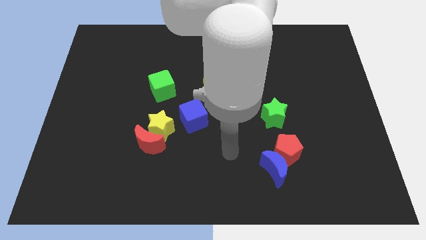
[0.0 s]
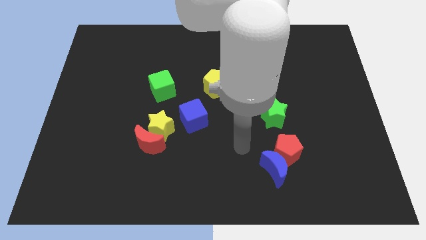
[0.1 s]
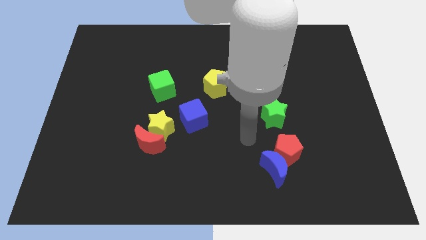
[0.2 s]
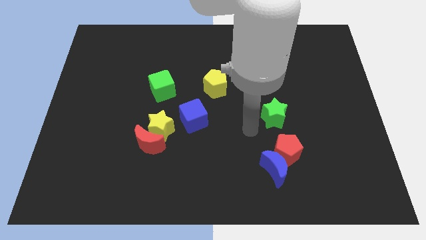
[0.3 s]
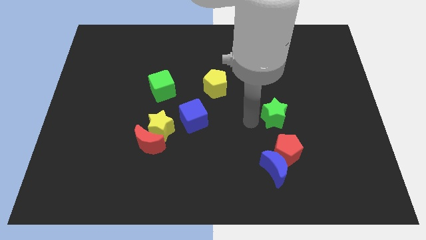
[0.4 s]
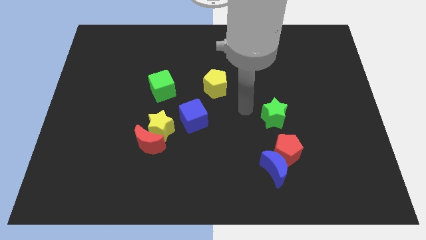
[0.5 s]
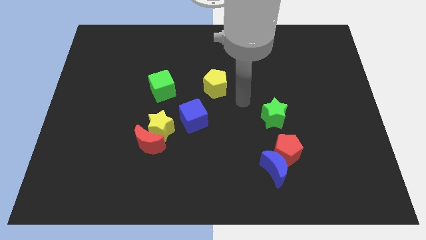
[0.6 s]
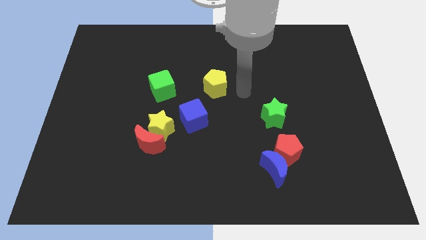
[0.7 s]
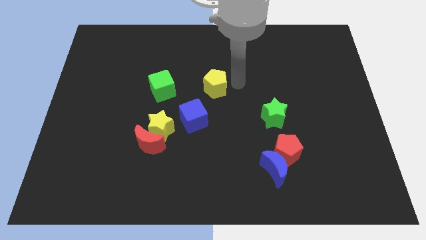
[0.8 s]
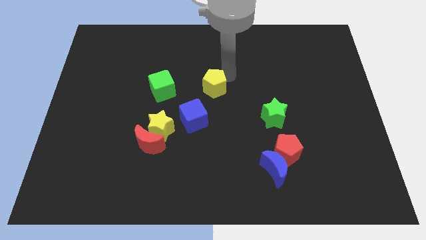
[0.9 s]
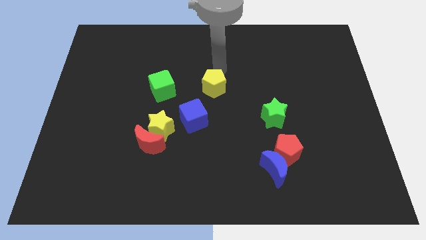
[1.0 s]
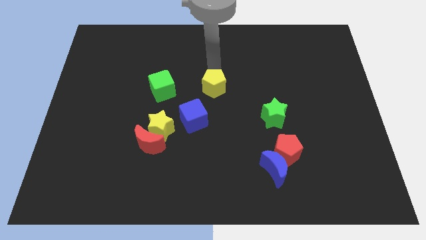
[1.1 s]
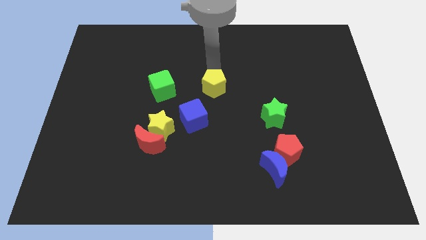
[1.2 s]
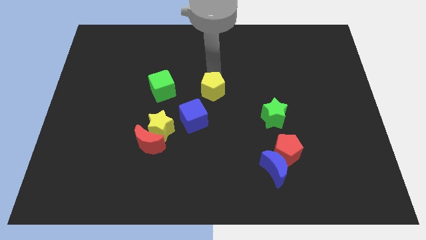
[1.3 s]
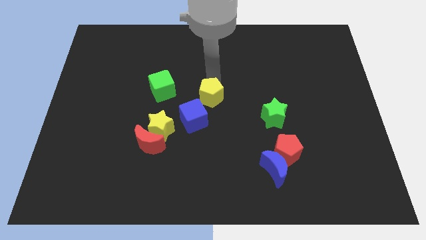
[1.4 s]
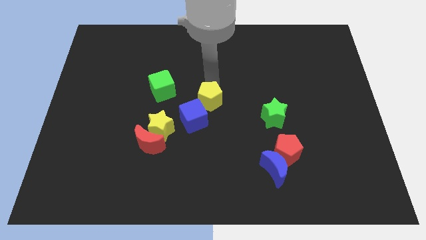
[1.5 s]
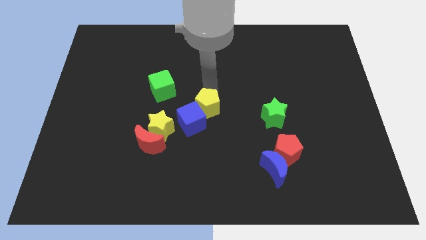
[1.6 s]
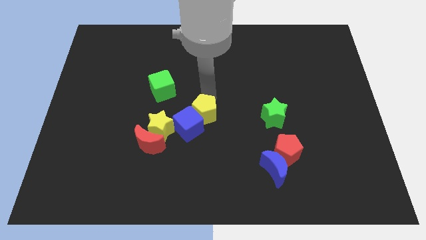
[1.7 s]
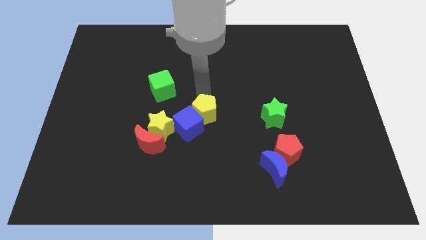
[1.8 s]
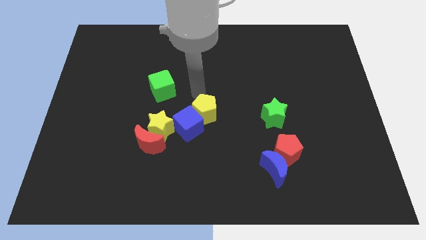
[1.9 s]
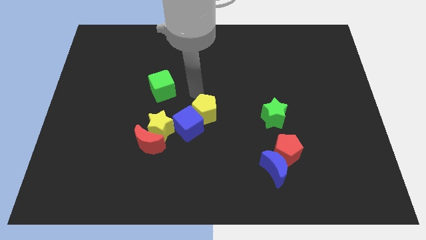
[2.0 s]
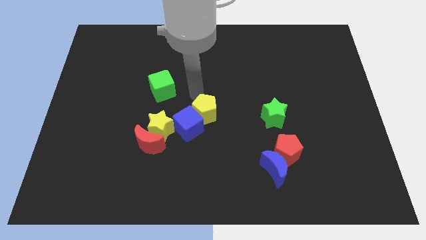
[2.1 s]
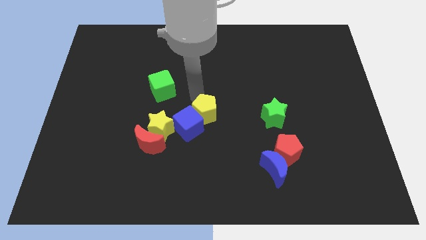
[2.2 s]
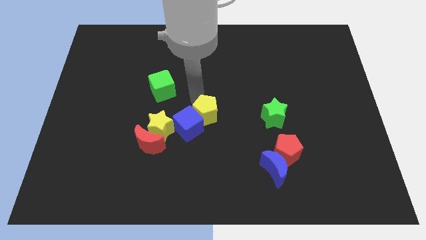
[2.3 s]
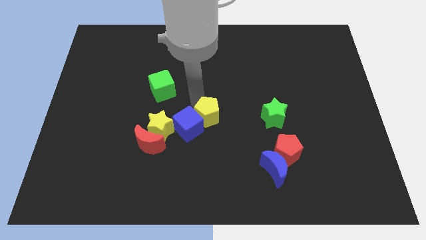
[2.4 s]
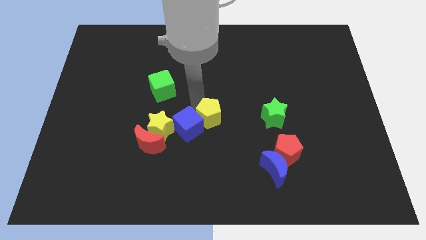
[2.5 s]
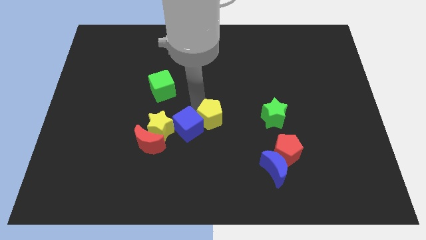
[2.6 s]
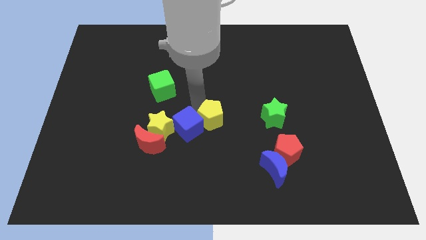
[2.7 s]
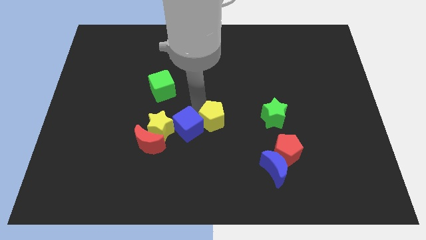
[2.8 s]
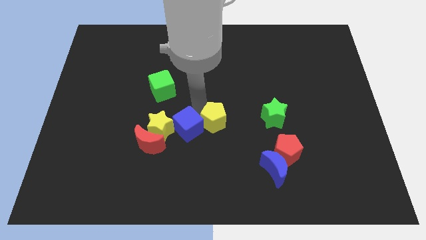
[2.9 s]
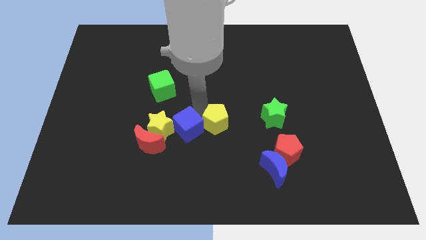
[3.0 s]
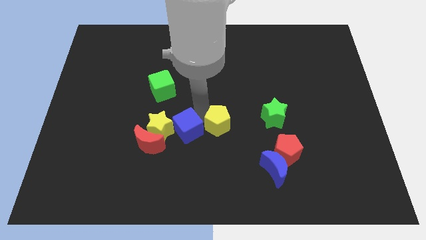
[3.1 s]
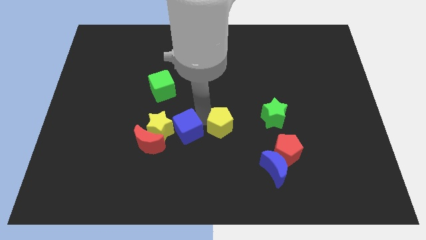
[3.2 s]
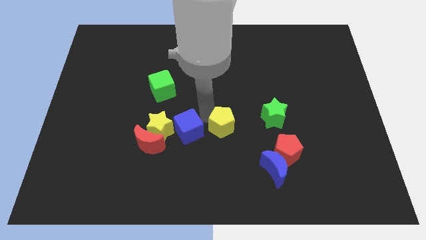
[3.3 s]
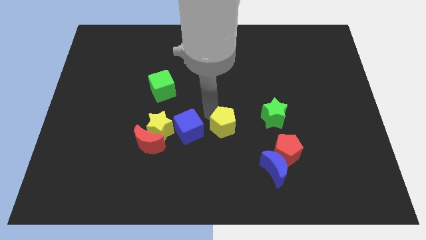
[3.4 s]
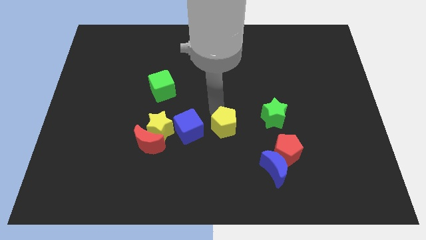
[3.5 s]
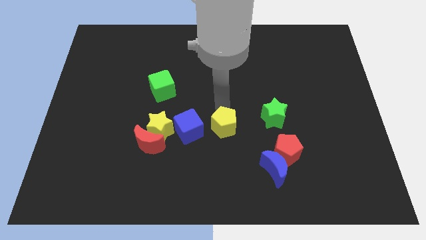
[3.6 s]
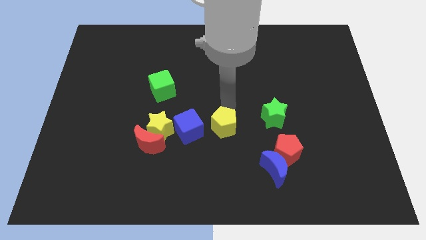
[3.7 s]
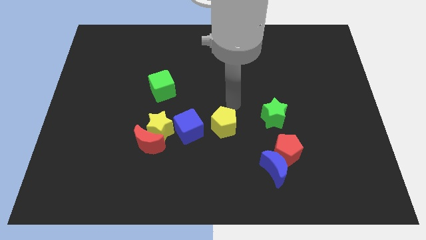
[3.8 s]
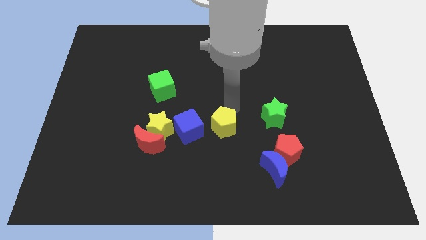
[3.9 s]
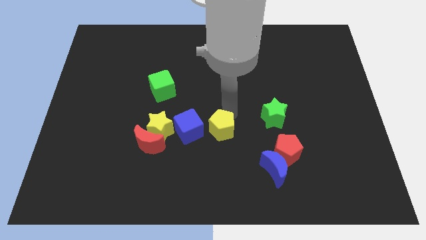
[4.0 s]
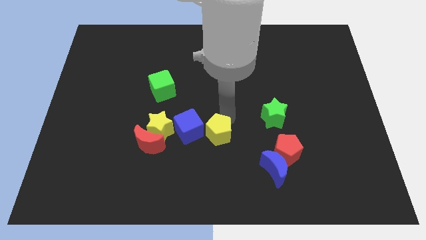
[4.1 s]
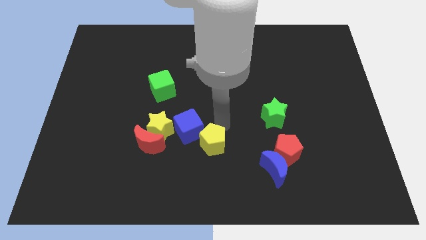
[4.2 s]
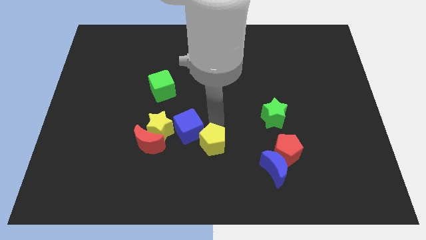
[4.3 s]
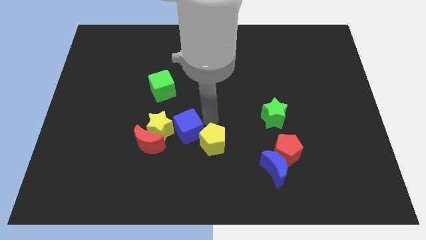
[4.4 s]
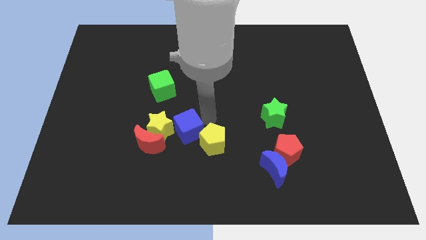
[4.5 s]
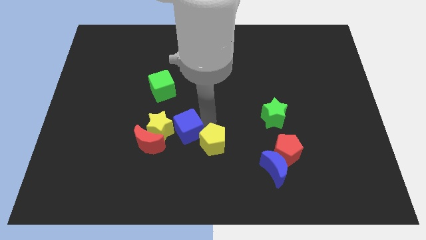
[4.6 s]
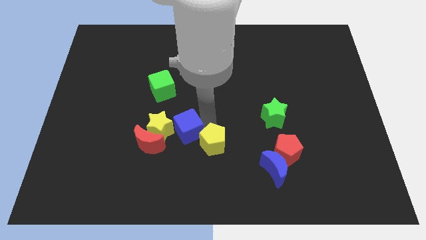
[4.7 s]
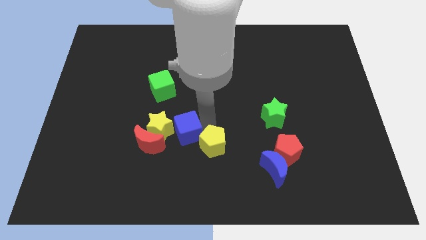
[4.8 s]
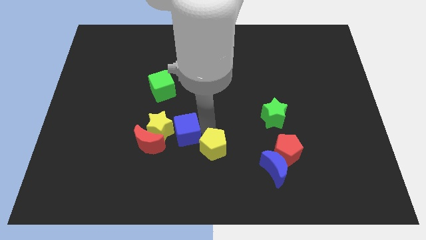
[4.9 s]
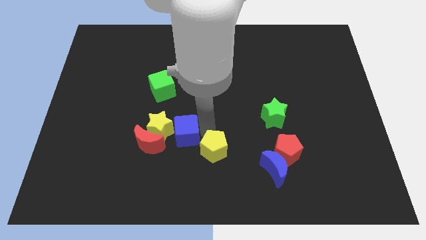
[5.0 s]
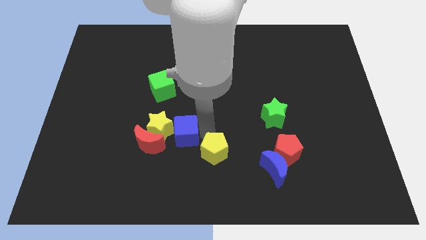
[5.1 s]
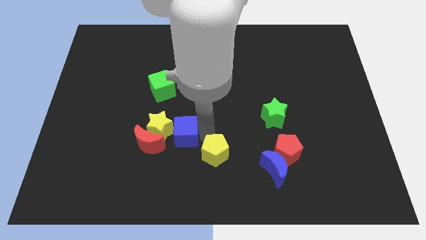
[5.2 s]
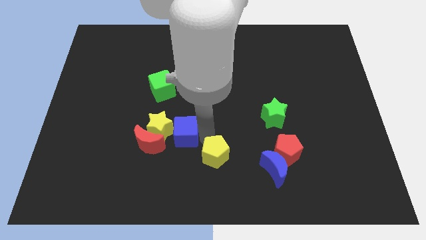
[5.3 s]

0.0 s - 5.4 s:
push the yellow pentagon to the bottom side

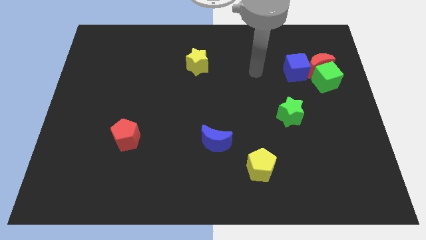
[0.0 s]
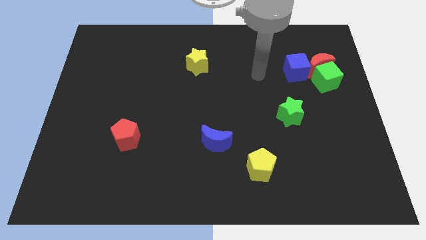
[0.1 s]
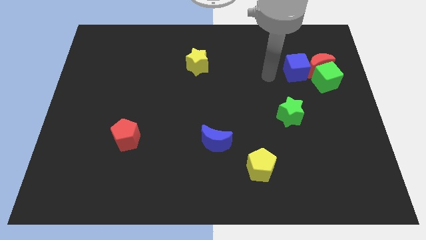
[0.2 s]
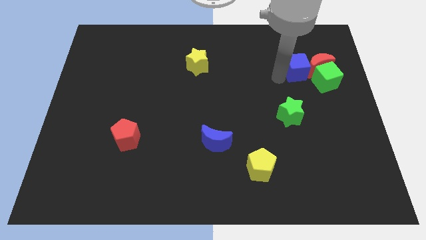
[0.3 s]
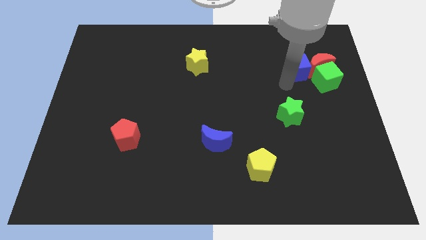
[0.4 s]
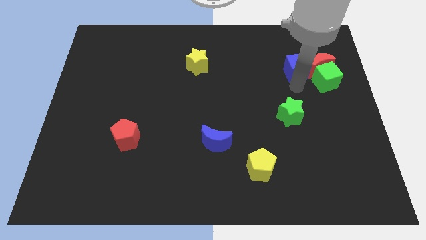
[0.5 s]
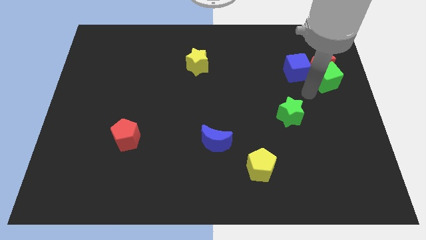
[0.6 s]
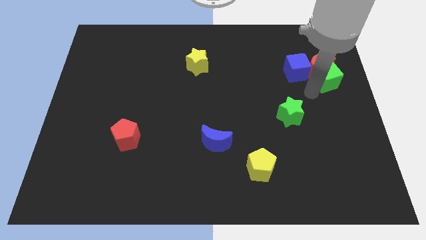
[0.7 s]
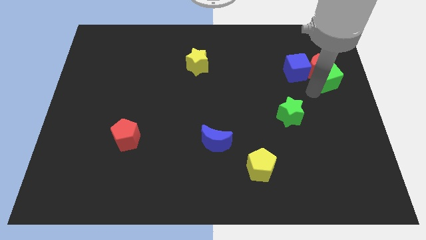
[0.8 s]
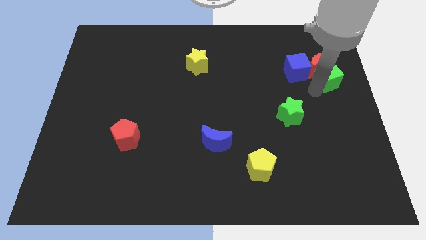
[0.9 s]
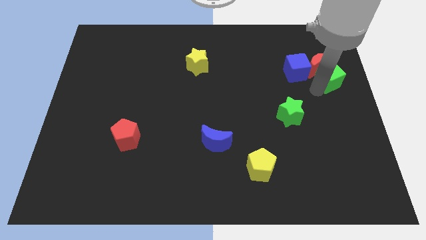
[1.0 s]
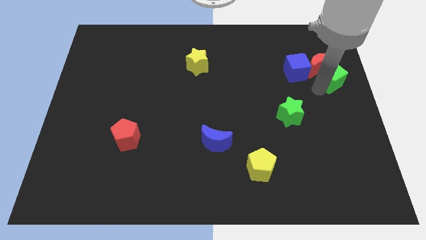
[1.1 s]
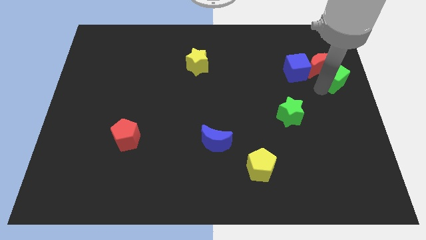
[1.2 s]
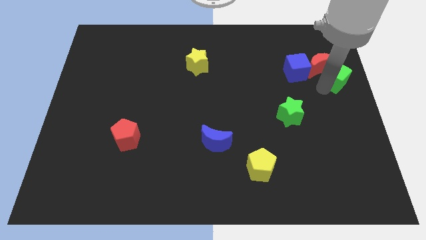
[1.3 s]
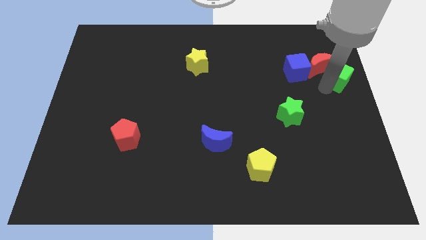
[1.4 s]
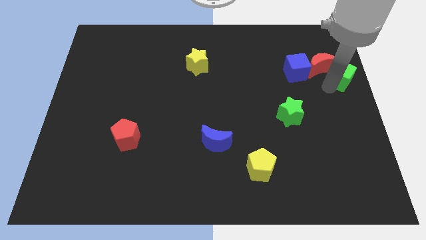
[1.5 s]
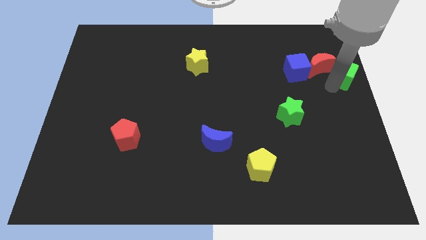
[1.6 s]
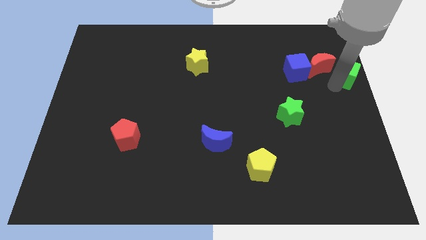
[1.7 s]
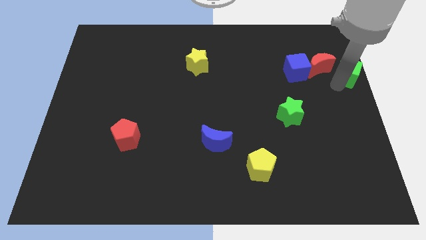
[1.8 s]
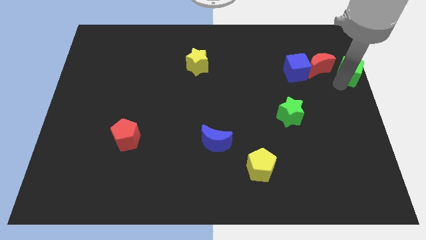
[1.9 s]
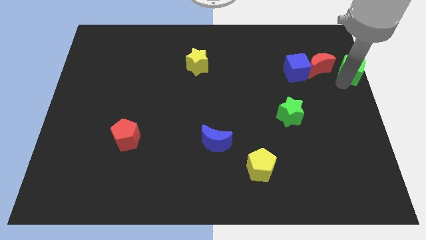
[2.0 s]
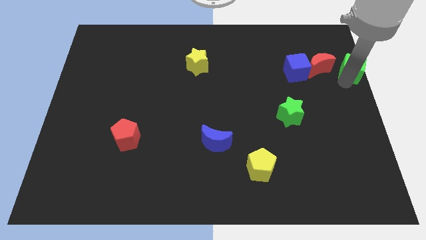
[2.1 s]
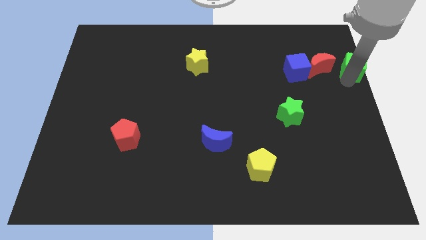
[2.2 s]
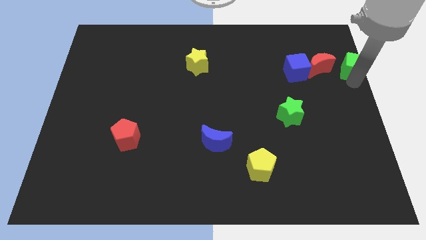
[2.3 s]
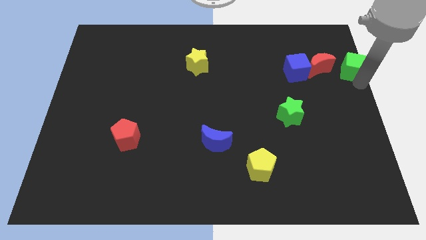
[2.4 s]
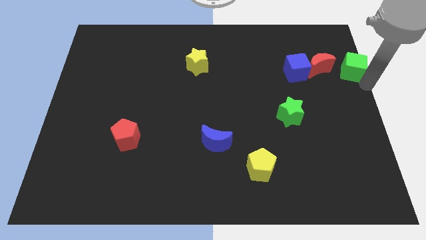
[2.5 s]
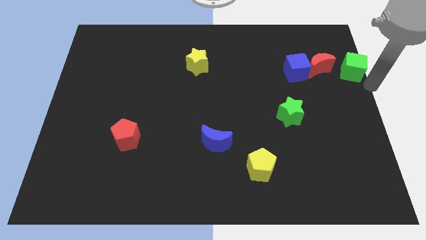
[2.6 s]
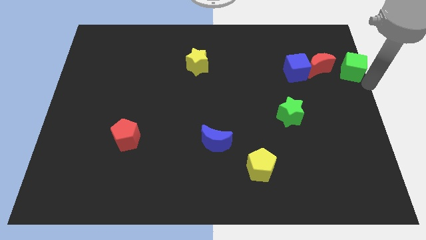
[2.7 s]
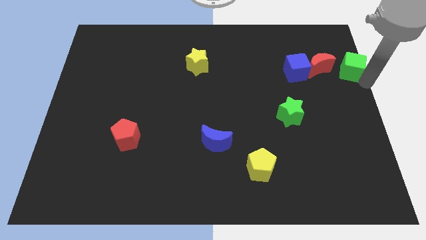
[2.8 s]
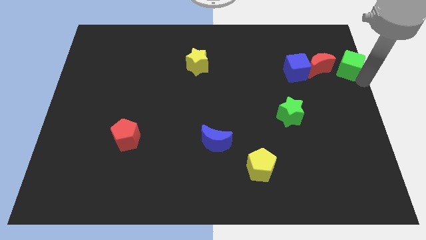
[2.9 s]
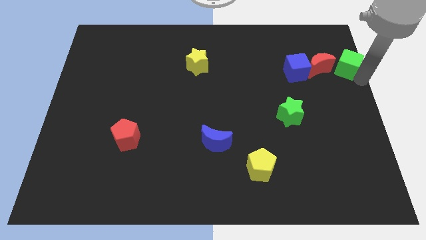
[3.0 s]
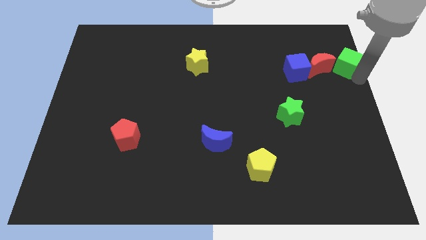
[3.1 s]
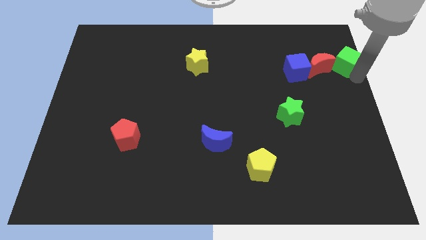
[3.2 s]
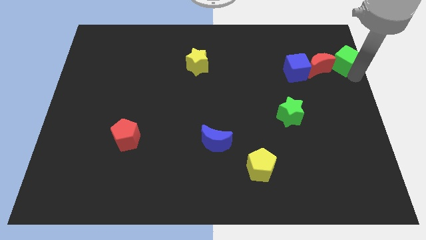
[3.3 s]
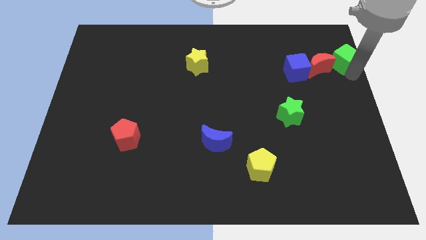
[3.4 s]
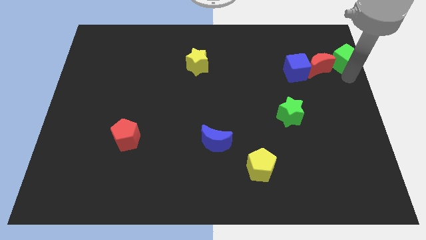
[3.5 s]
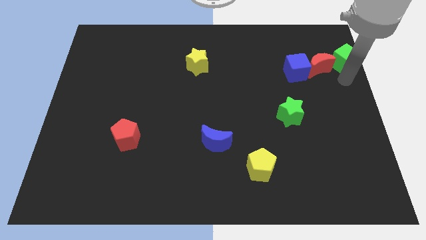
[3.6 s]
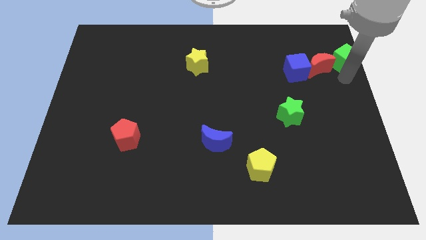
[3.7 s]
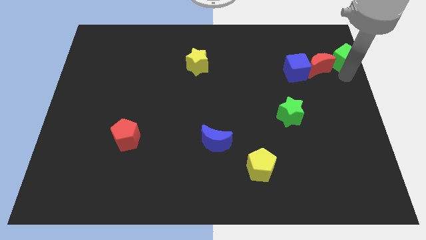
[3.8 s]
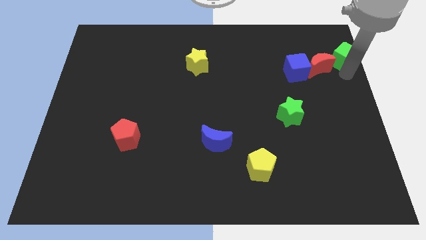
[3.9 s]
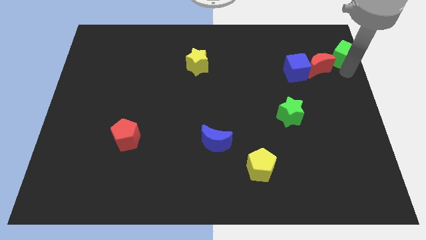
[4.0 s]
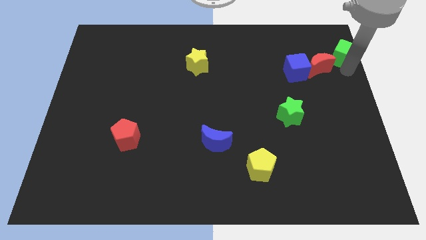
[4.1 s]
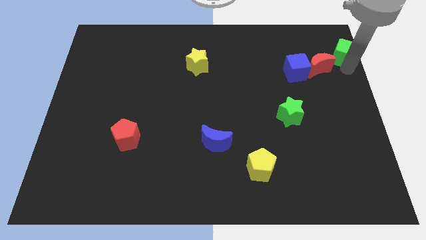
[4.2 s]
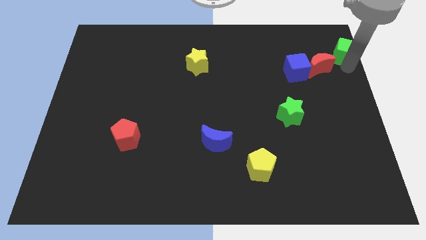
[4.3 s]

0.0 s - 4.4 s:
move the green cube to the upper right corner
